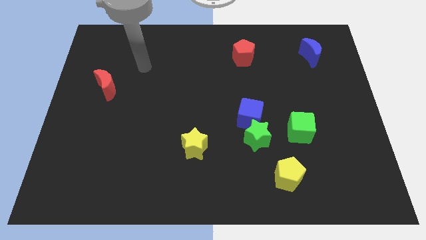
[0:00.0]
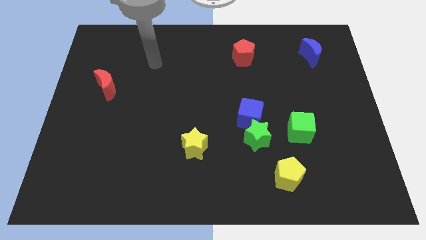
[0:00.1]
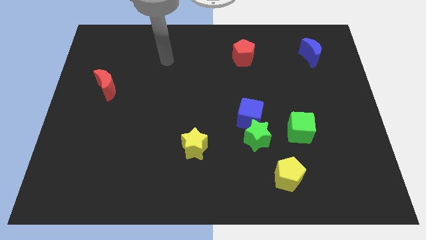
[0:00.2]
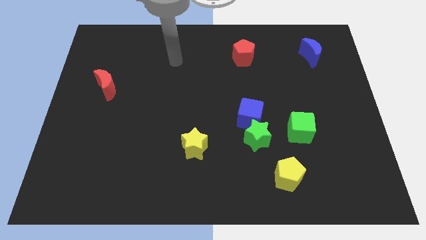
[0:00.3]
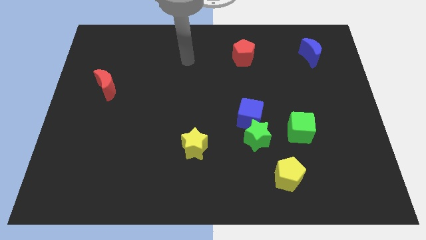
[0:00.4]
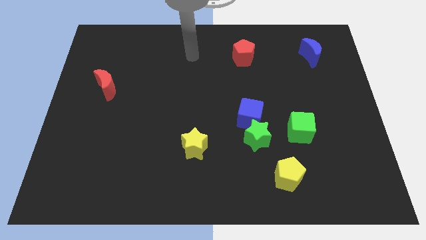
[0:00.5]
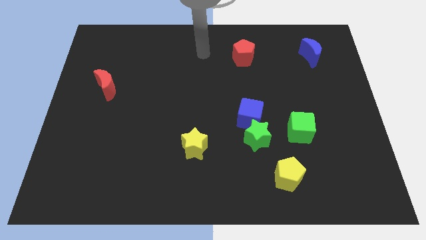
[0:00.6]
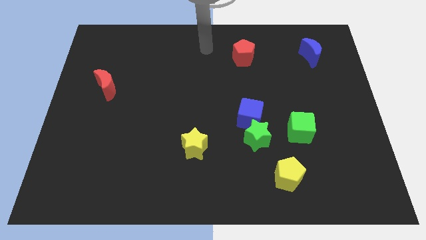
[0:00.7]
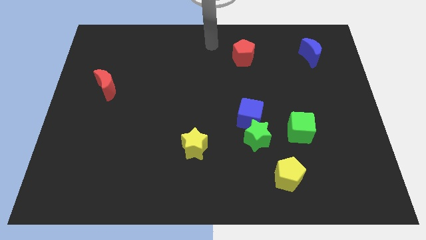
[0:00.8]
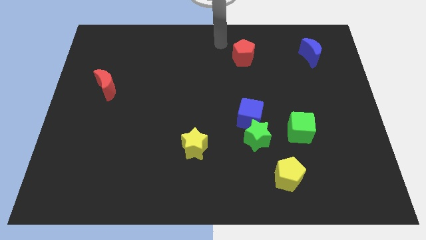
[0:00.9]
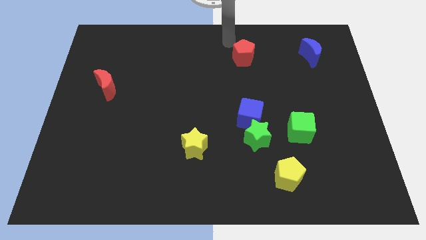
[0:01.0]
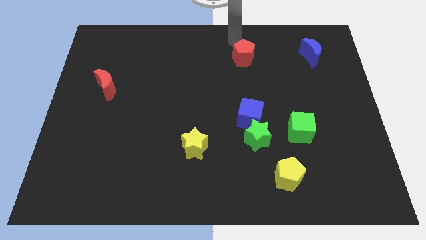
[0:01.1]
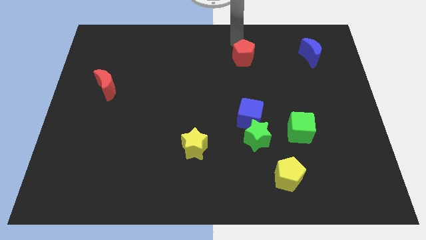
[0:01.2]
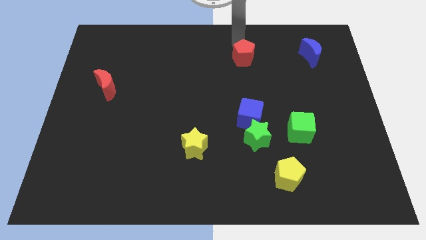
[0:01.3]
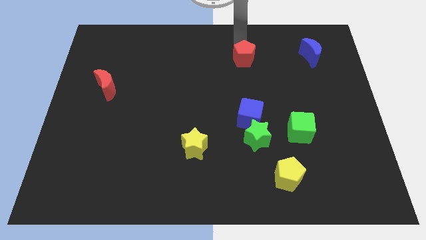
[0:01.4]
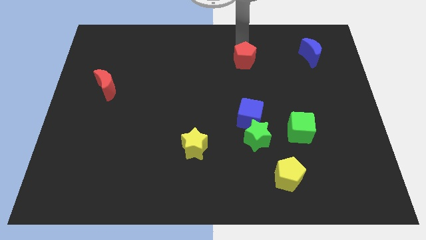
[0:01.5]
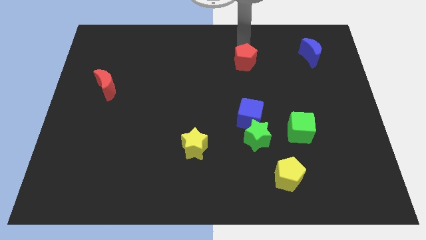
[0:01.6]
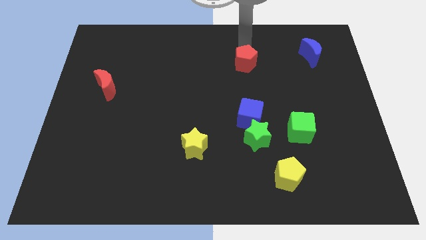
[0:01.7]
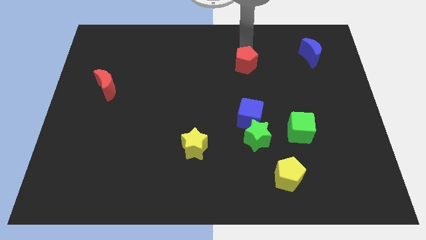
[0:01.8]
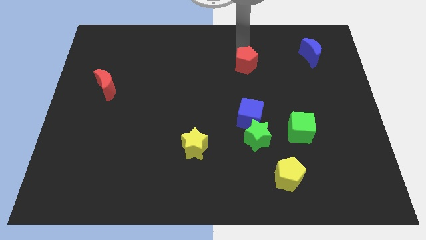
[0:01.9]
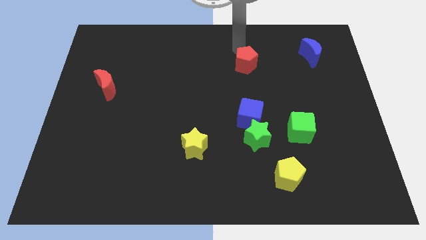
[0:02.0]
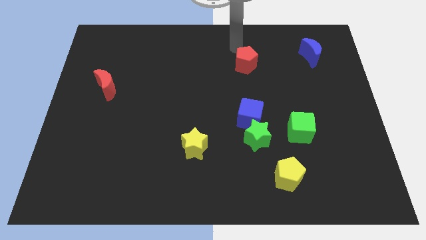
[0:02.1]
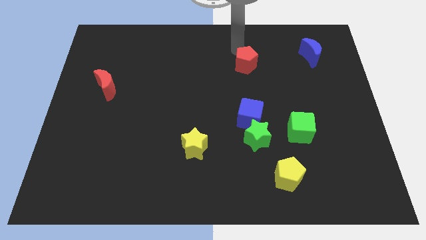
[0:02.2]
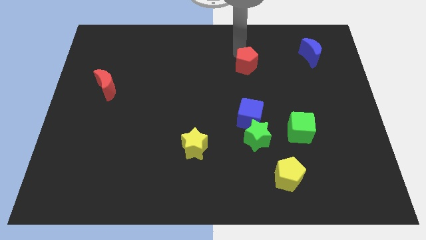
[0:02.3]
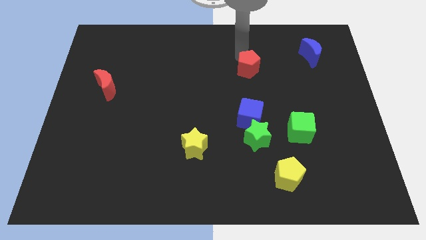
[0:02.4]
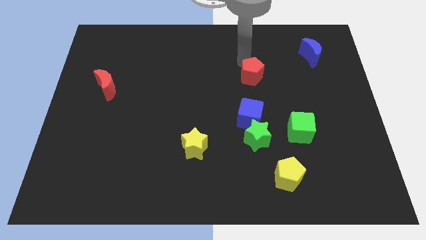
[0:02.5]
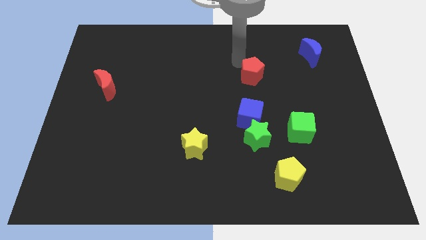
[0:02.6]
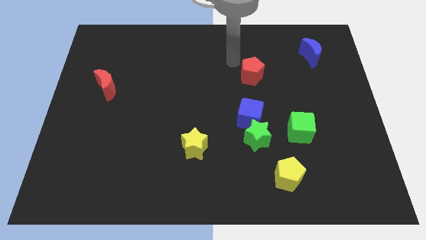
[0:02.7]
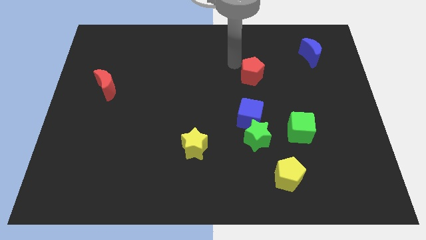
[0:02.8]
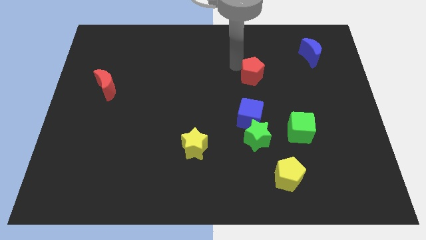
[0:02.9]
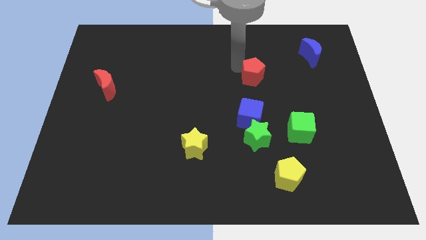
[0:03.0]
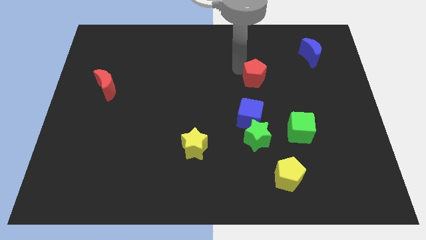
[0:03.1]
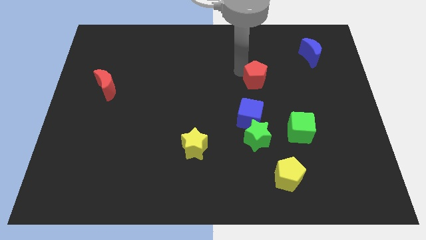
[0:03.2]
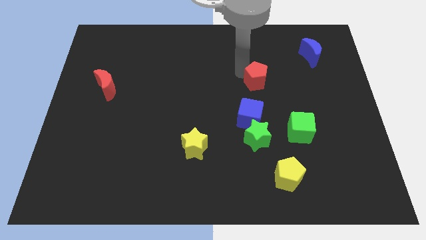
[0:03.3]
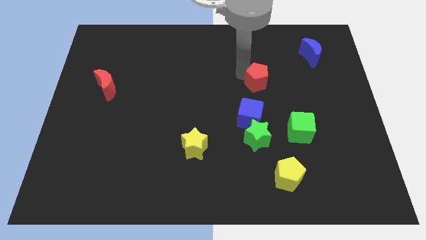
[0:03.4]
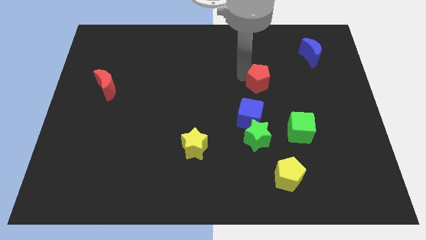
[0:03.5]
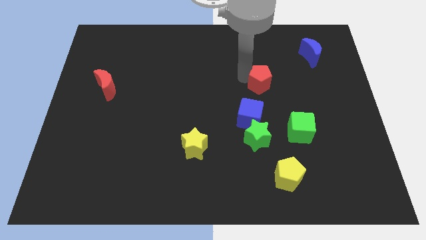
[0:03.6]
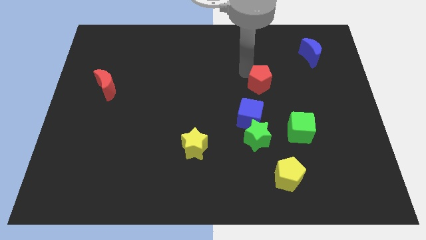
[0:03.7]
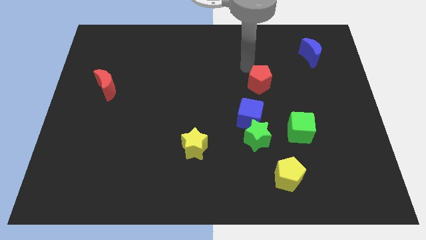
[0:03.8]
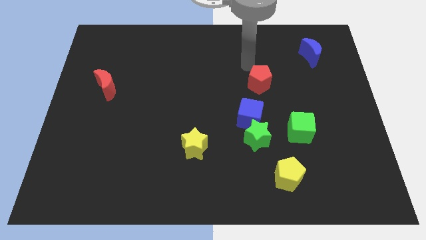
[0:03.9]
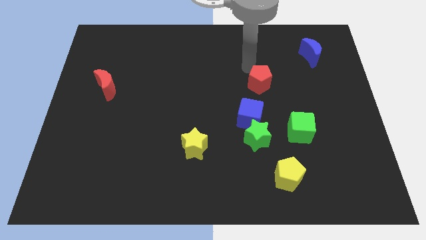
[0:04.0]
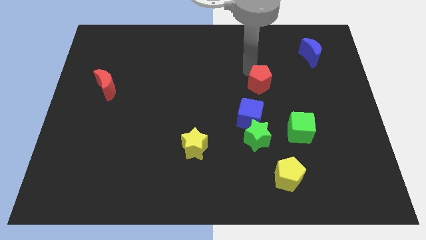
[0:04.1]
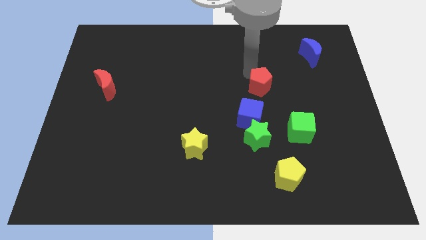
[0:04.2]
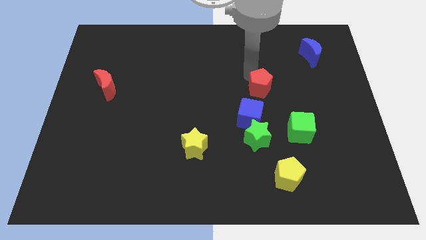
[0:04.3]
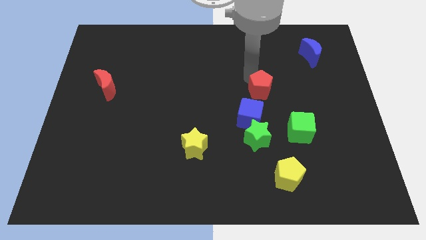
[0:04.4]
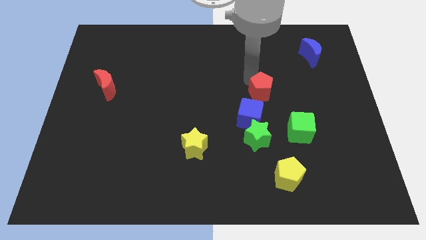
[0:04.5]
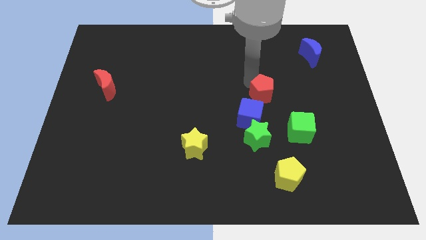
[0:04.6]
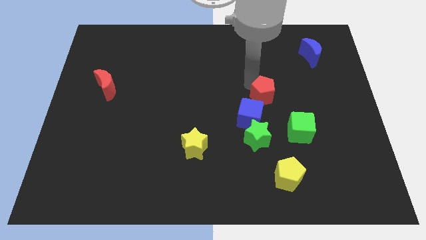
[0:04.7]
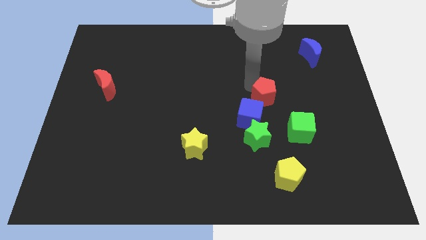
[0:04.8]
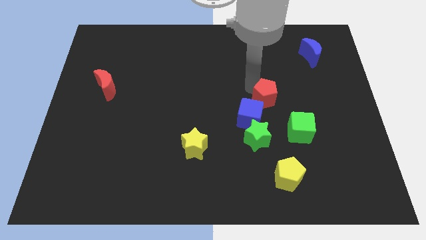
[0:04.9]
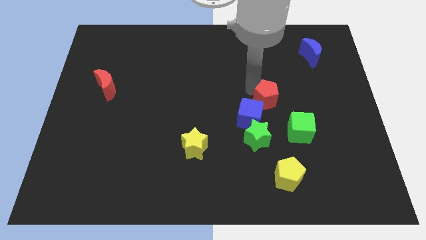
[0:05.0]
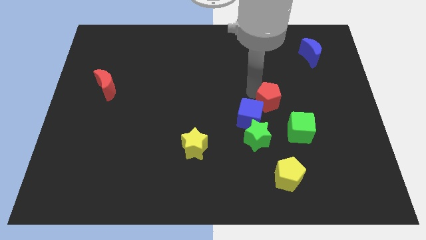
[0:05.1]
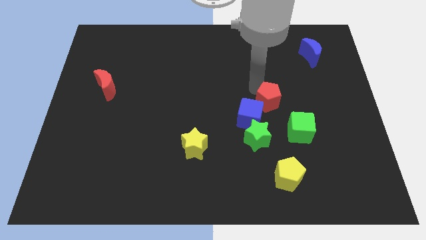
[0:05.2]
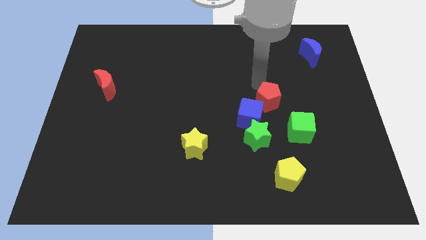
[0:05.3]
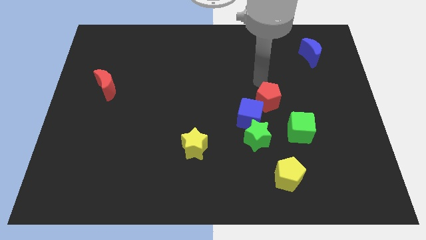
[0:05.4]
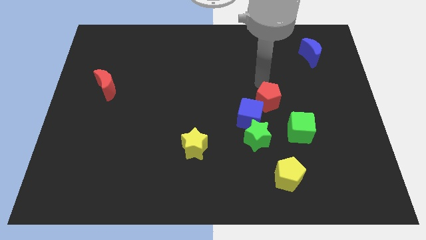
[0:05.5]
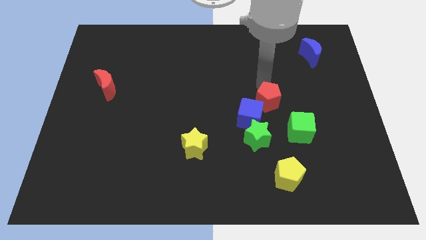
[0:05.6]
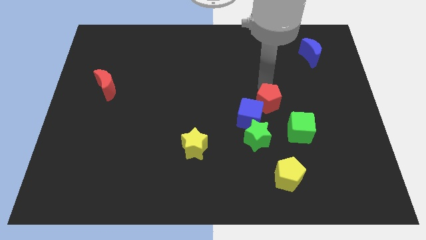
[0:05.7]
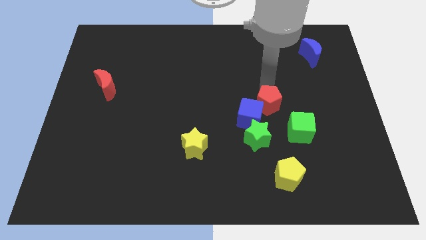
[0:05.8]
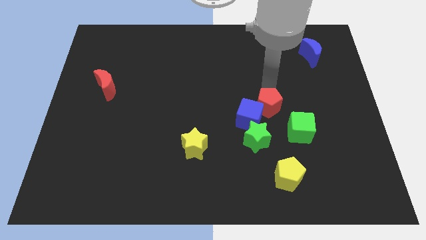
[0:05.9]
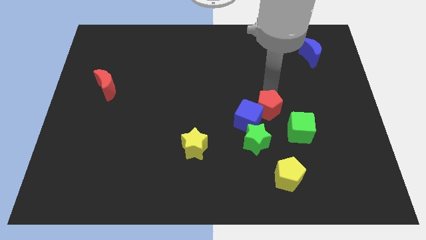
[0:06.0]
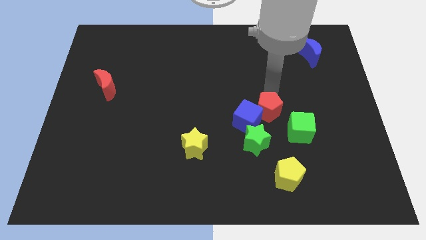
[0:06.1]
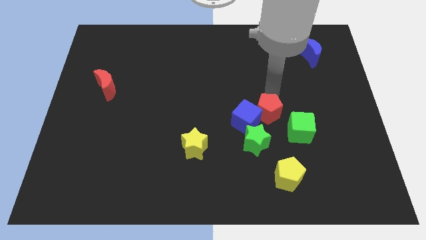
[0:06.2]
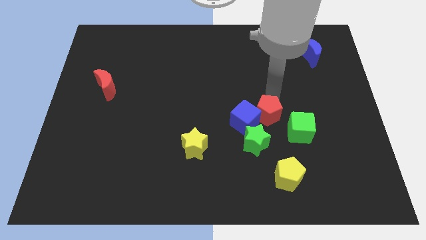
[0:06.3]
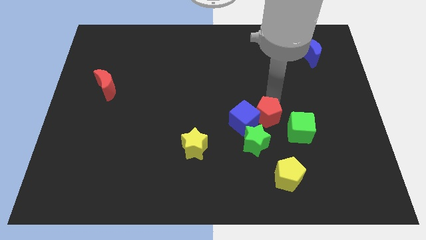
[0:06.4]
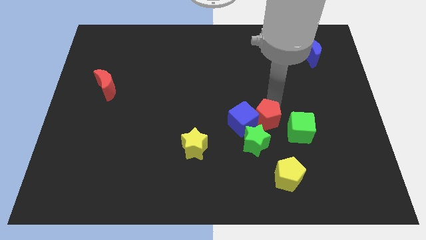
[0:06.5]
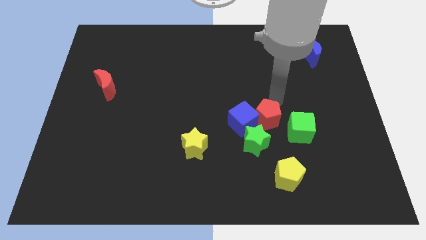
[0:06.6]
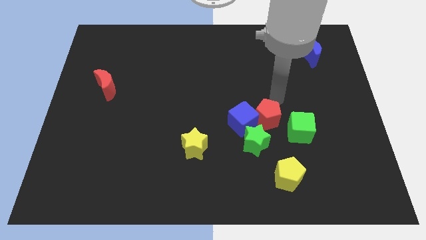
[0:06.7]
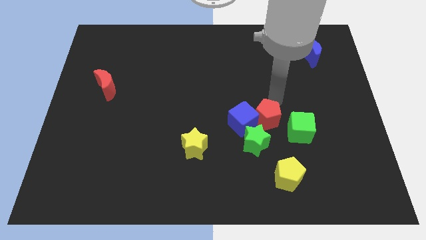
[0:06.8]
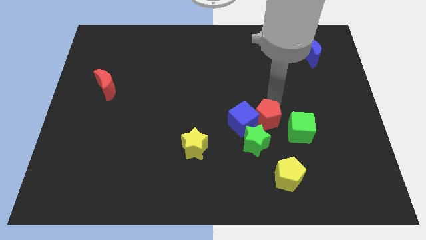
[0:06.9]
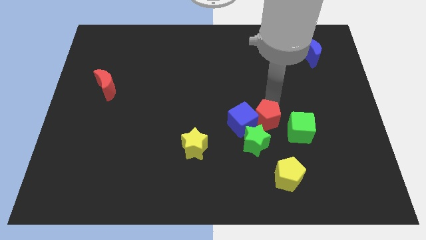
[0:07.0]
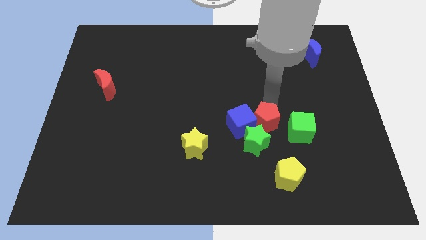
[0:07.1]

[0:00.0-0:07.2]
slide the red pentagon to the green star
